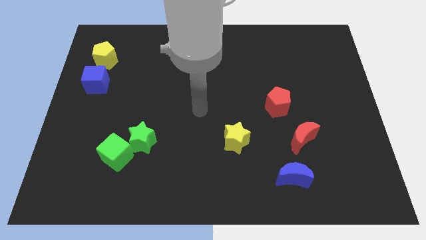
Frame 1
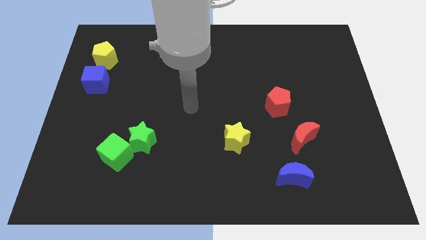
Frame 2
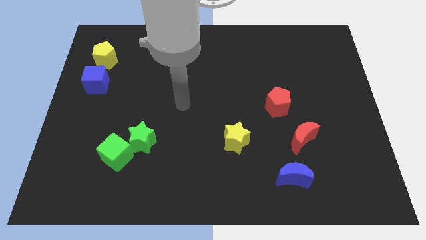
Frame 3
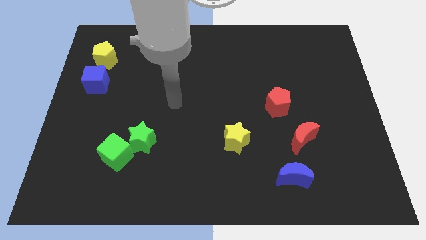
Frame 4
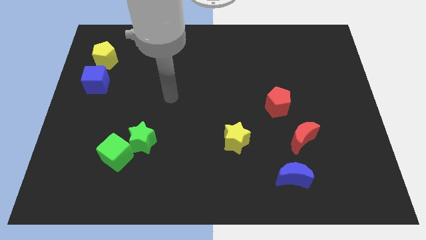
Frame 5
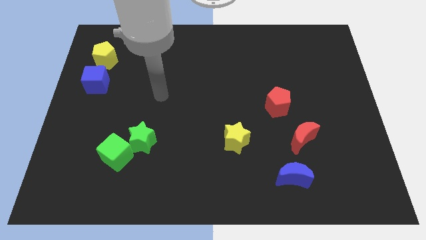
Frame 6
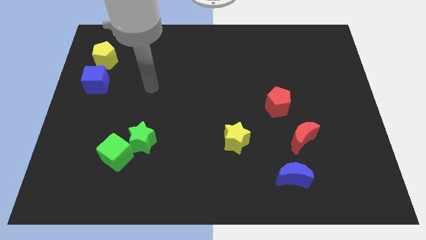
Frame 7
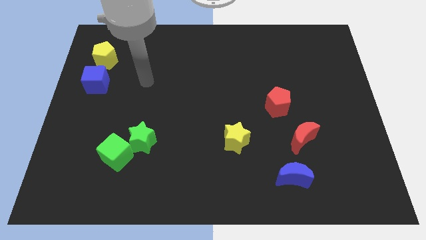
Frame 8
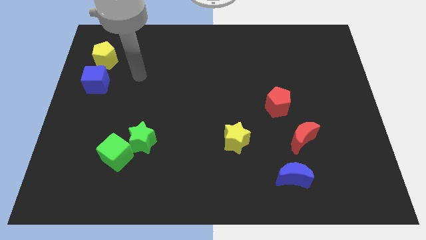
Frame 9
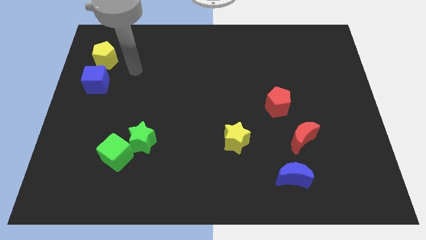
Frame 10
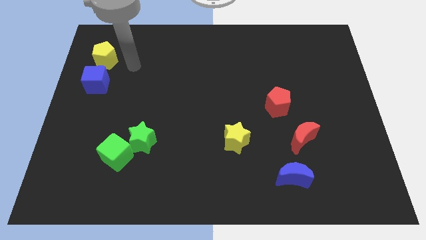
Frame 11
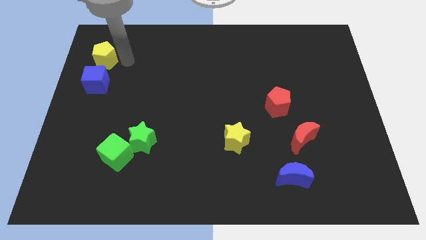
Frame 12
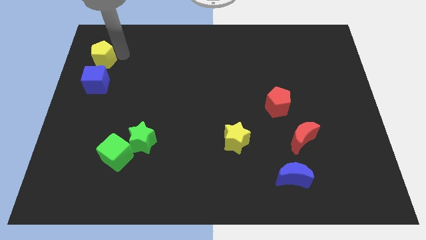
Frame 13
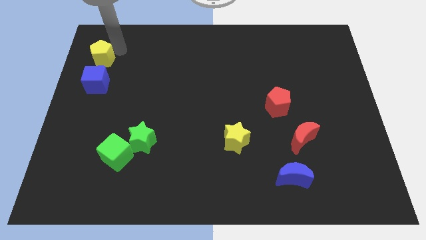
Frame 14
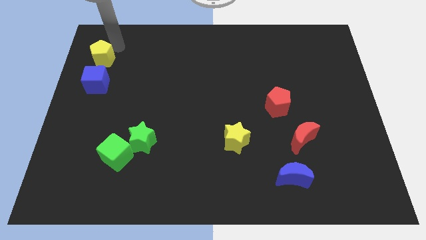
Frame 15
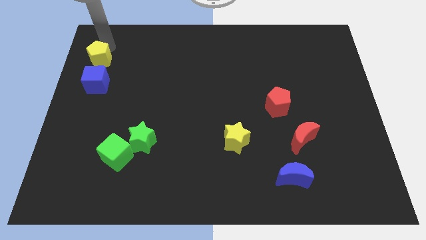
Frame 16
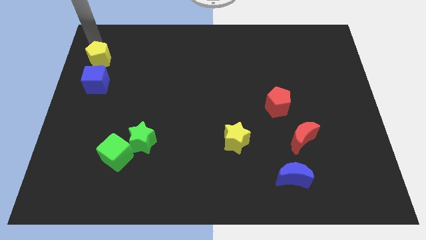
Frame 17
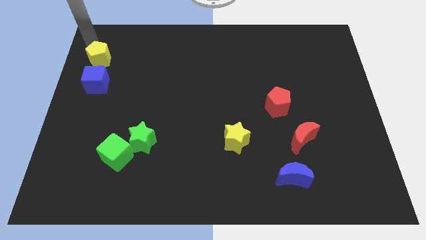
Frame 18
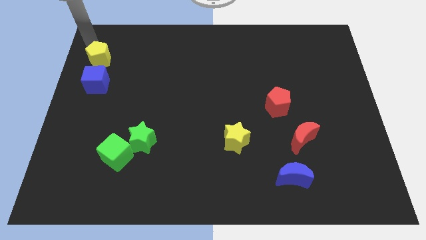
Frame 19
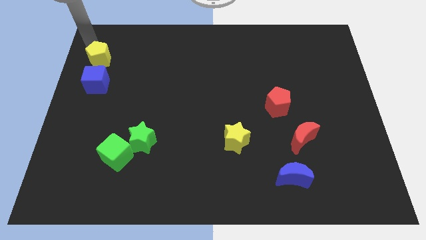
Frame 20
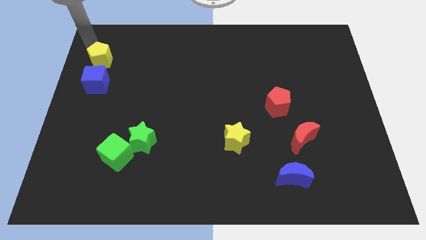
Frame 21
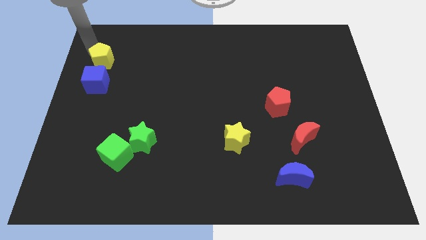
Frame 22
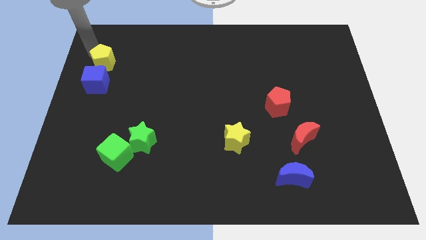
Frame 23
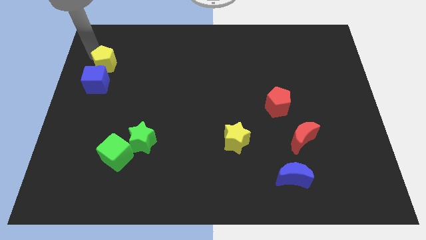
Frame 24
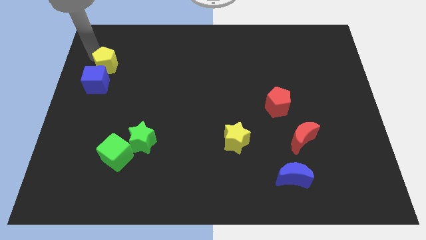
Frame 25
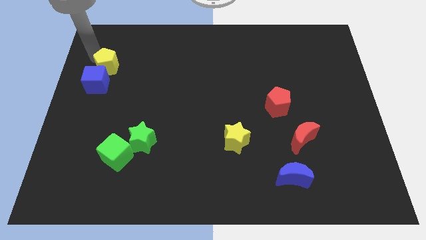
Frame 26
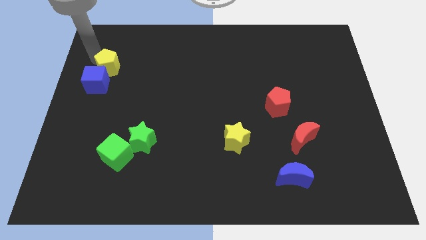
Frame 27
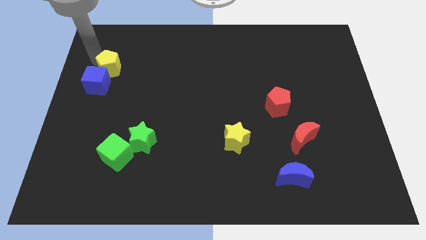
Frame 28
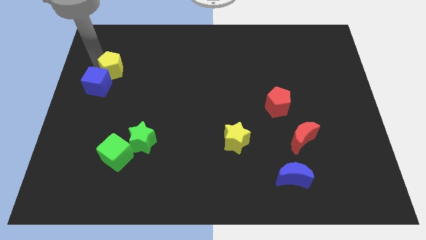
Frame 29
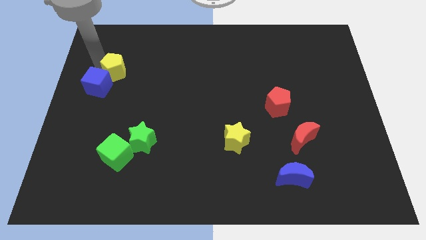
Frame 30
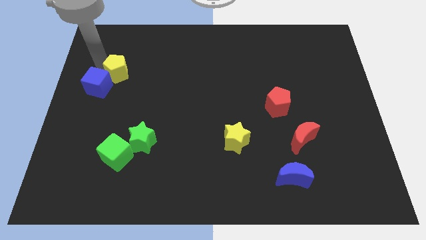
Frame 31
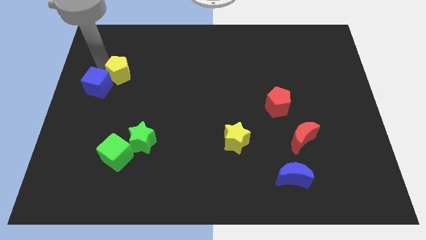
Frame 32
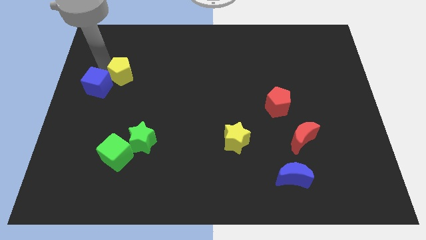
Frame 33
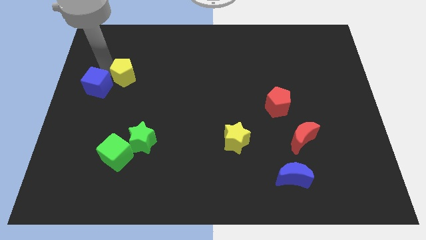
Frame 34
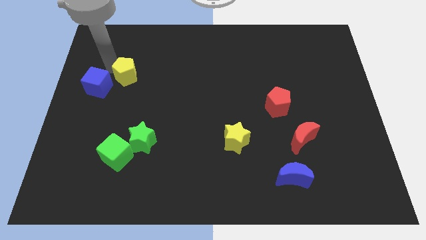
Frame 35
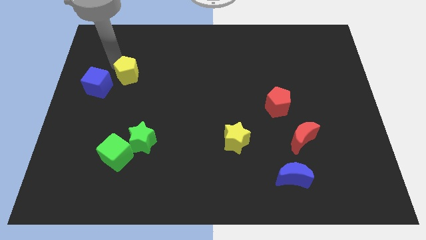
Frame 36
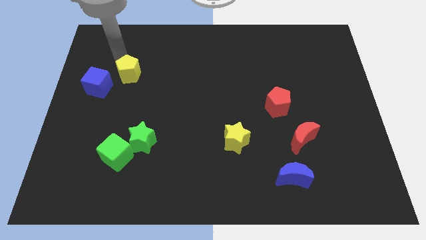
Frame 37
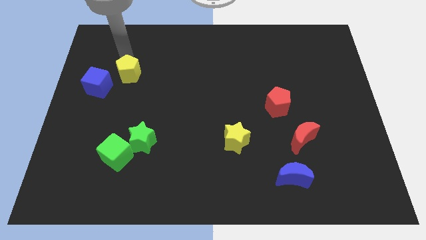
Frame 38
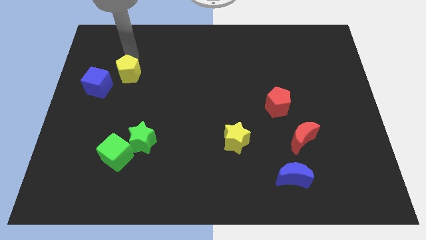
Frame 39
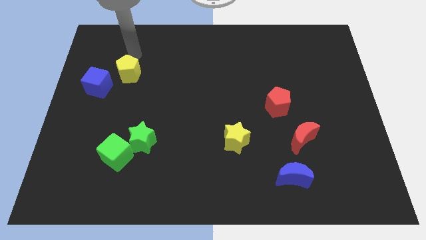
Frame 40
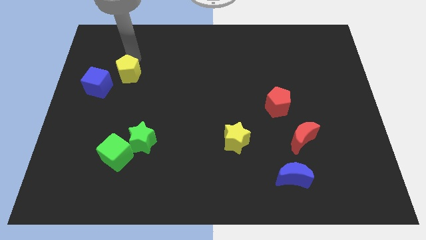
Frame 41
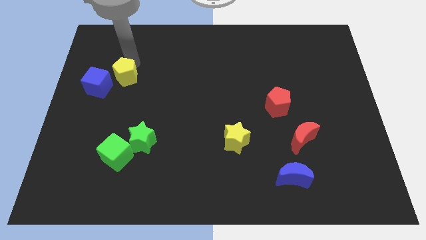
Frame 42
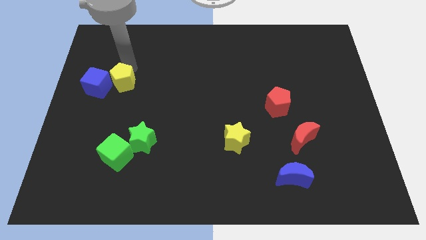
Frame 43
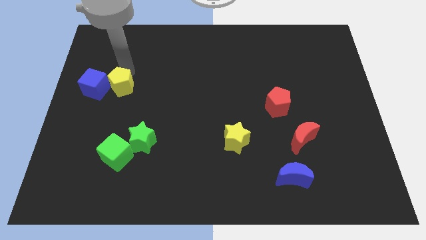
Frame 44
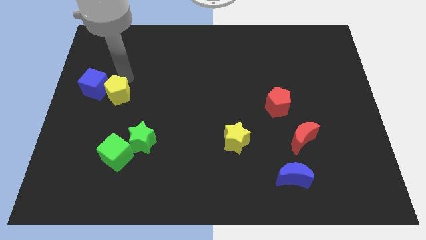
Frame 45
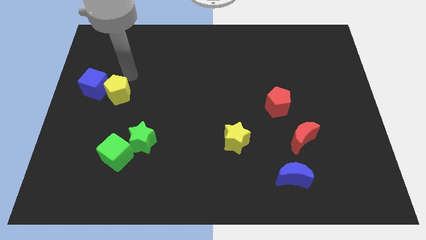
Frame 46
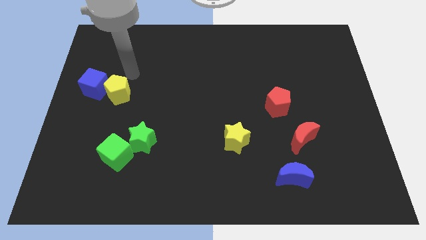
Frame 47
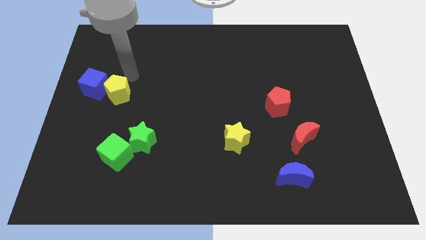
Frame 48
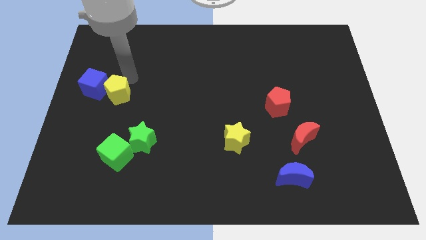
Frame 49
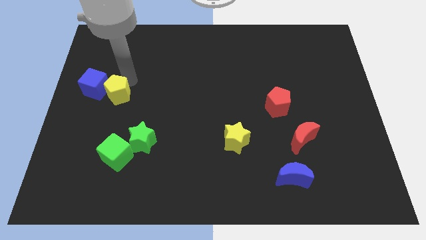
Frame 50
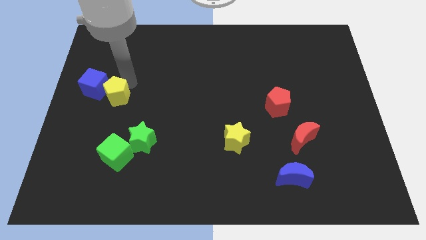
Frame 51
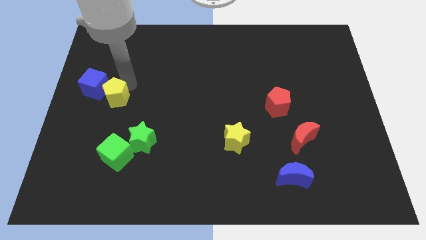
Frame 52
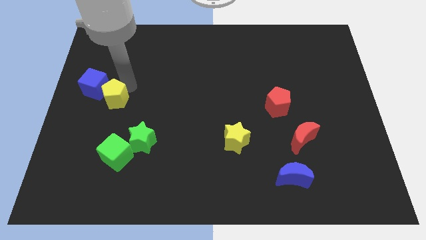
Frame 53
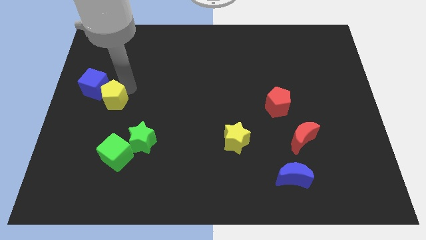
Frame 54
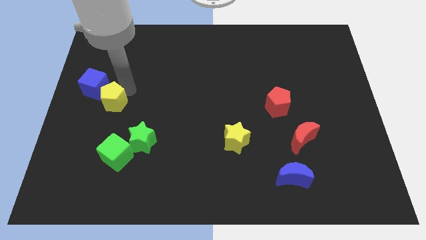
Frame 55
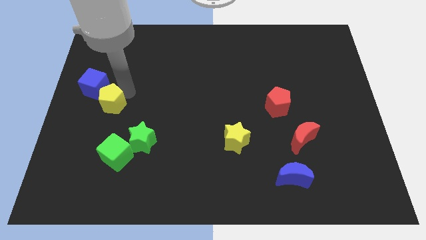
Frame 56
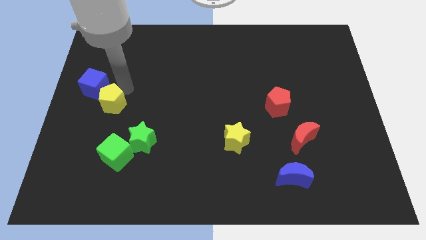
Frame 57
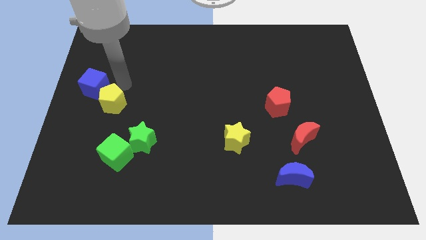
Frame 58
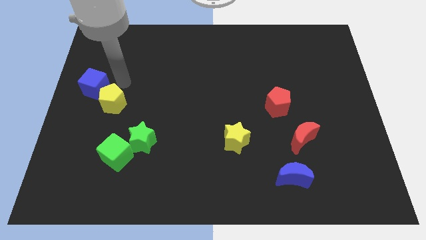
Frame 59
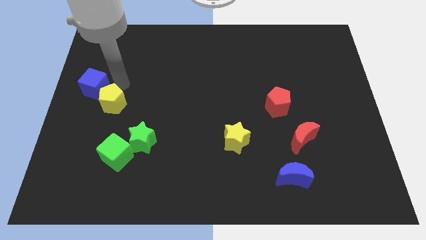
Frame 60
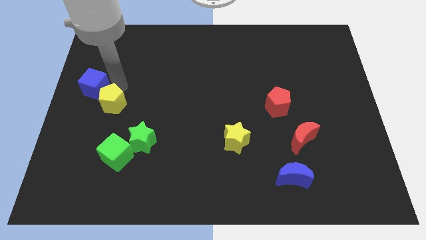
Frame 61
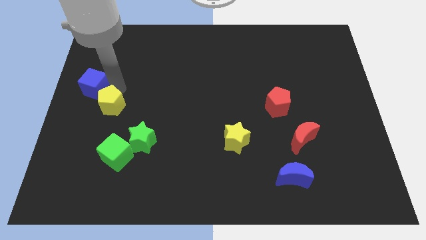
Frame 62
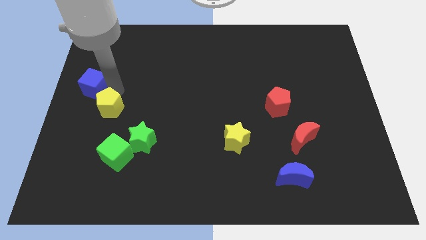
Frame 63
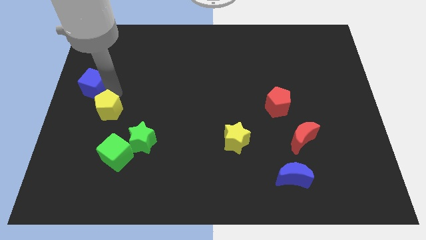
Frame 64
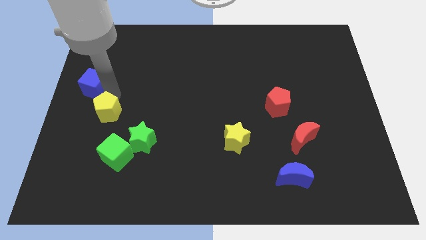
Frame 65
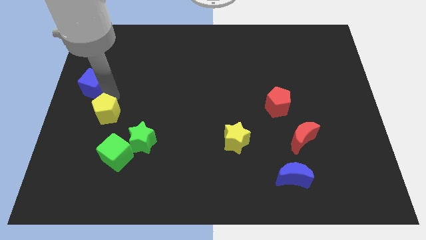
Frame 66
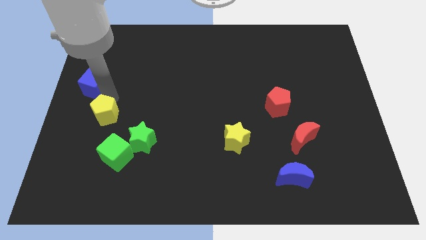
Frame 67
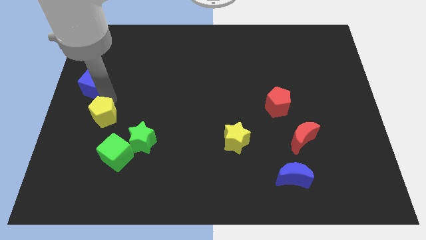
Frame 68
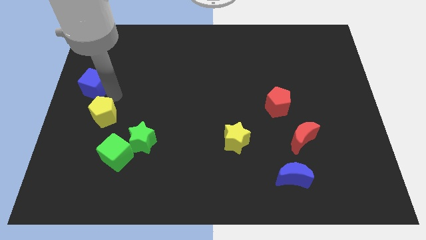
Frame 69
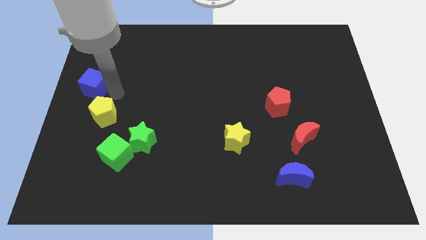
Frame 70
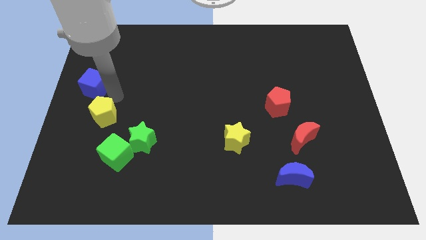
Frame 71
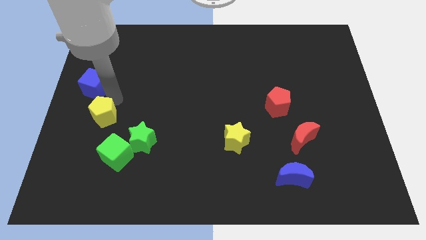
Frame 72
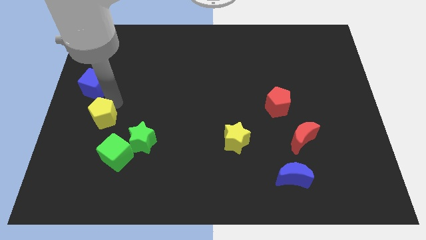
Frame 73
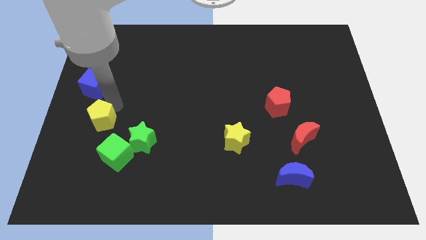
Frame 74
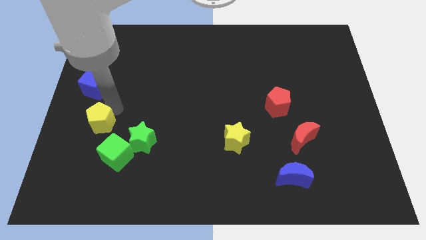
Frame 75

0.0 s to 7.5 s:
slide the yellow pentagon downwards

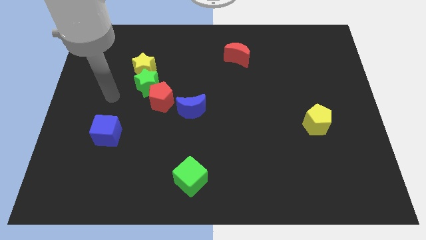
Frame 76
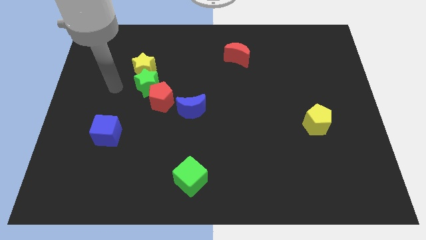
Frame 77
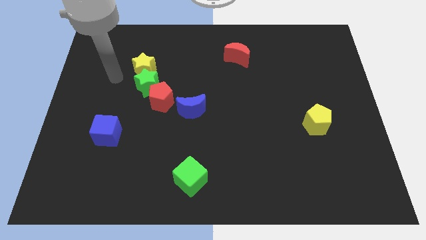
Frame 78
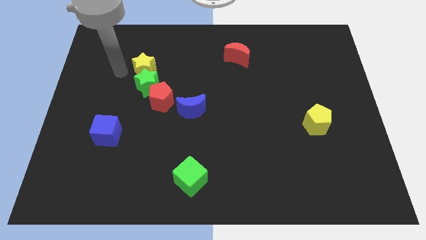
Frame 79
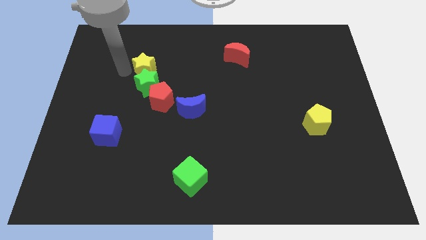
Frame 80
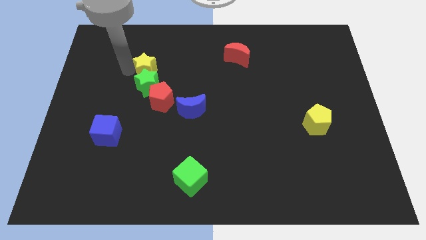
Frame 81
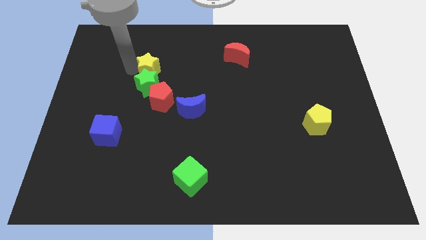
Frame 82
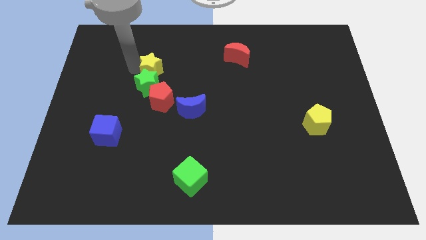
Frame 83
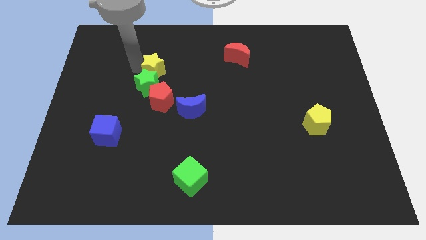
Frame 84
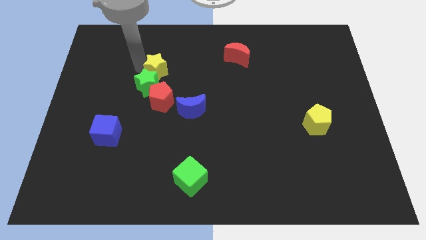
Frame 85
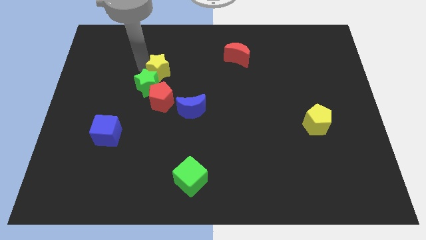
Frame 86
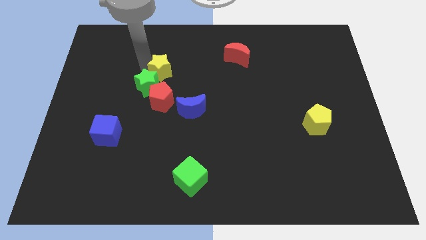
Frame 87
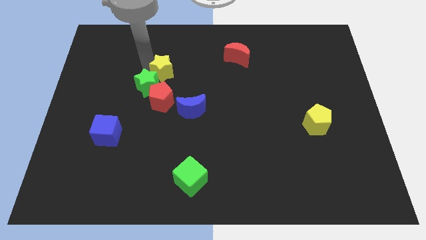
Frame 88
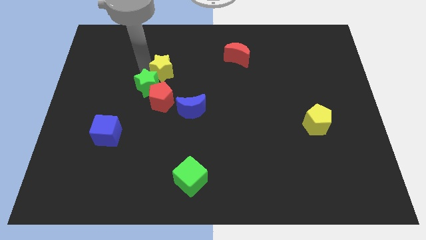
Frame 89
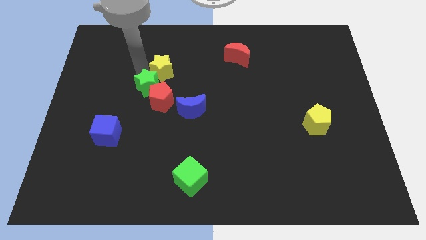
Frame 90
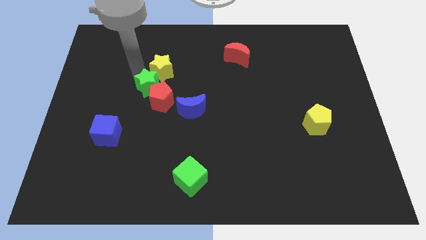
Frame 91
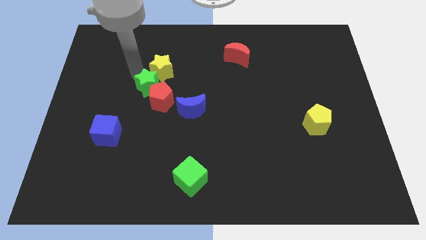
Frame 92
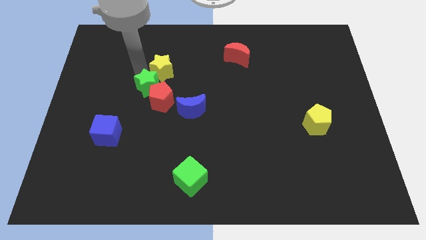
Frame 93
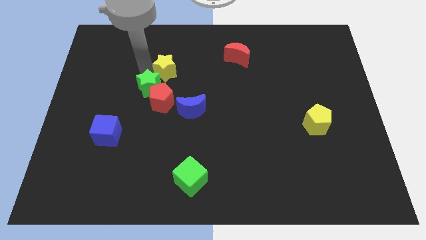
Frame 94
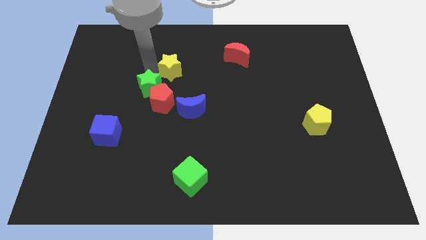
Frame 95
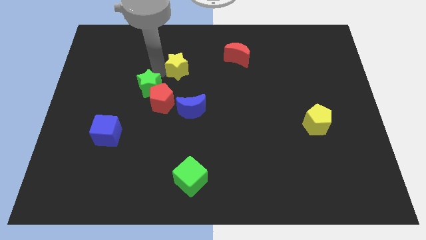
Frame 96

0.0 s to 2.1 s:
slightly move the yellow star right
